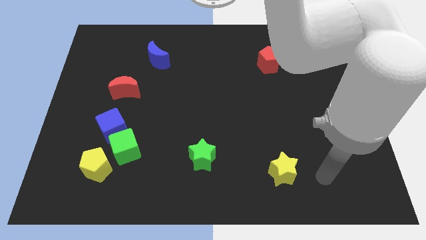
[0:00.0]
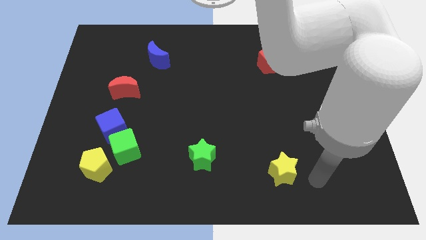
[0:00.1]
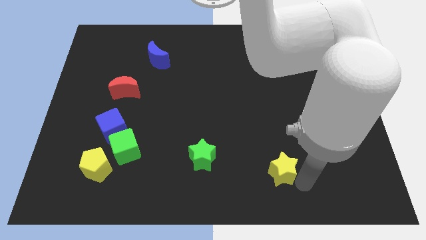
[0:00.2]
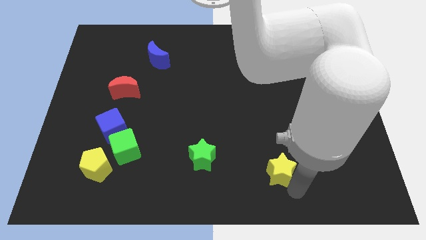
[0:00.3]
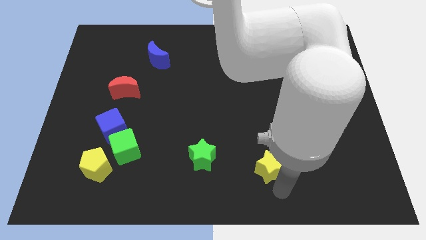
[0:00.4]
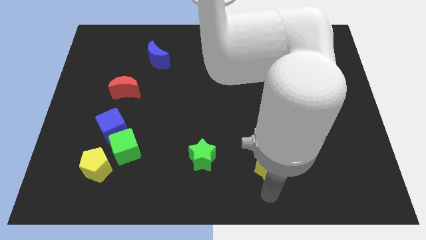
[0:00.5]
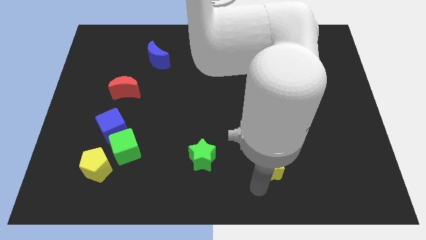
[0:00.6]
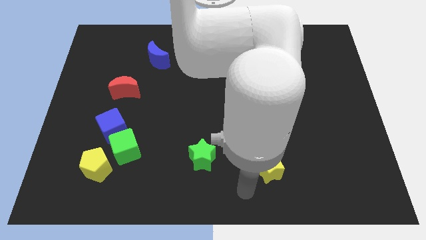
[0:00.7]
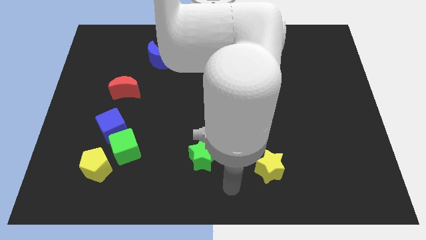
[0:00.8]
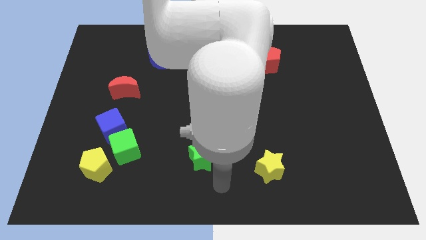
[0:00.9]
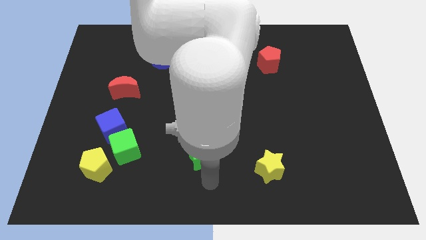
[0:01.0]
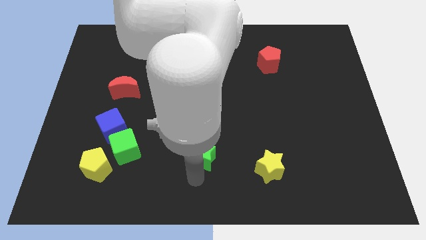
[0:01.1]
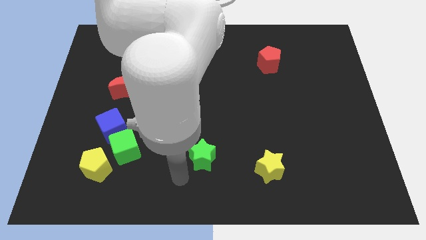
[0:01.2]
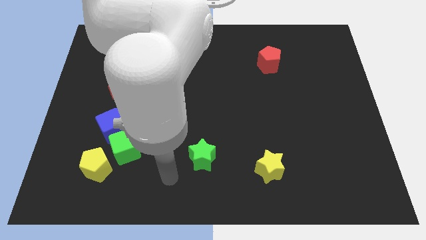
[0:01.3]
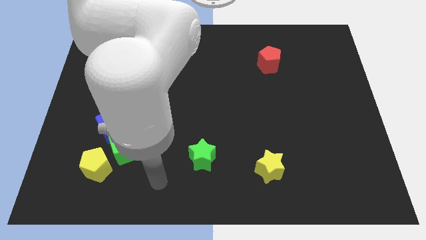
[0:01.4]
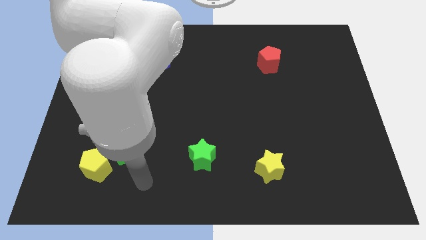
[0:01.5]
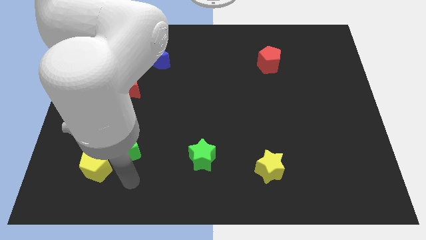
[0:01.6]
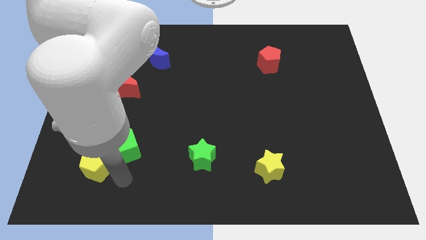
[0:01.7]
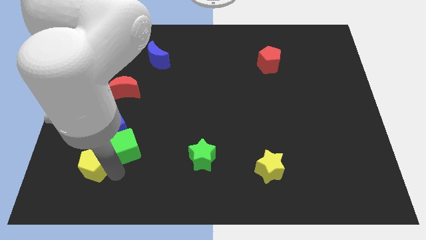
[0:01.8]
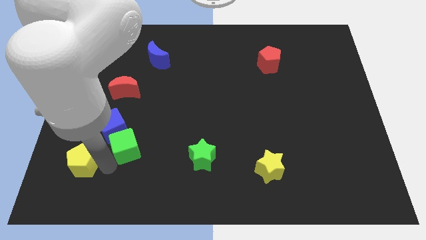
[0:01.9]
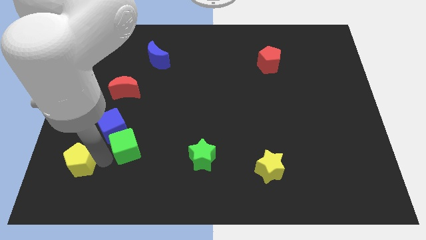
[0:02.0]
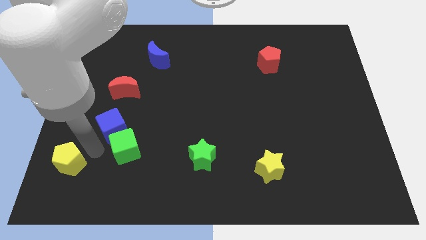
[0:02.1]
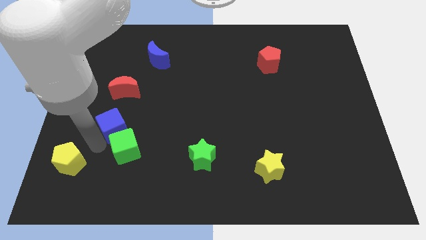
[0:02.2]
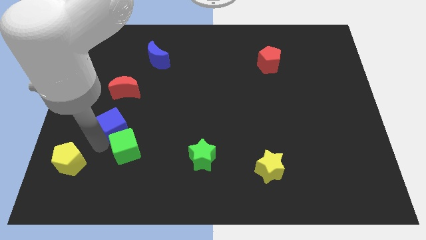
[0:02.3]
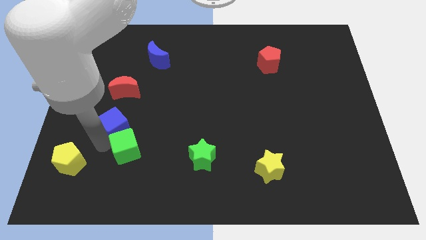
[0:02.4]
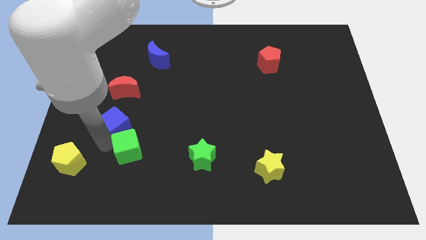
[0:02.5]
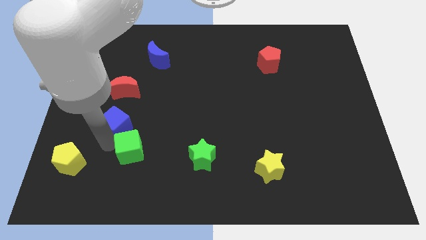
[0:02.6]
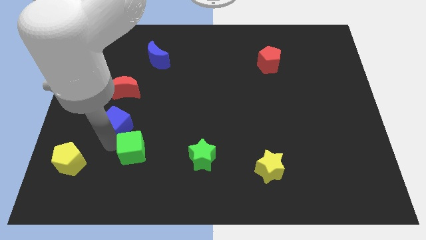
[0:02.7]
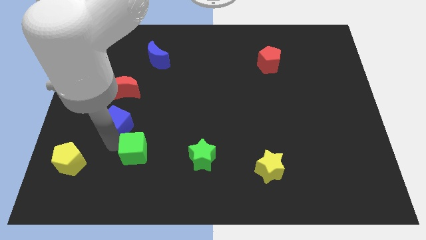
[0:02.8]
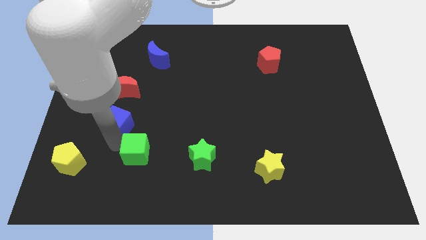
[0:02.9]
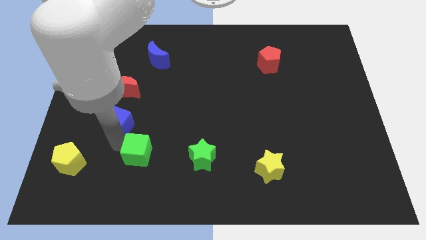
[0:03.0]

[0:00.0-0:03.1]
separate the green cube from the blue cube and yellow pentagon

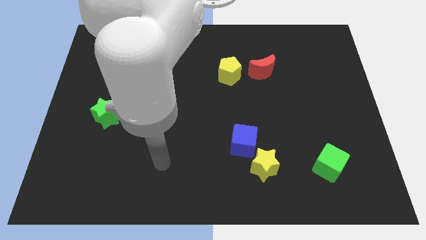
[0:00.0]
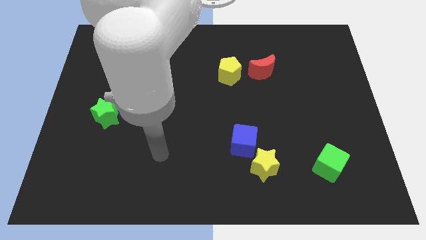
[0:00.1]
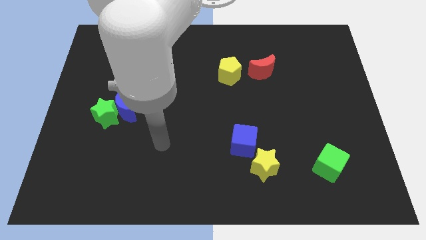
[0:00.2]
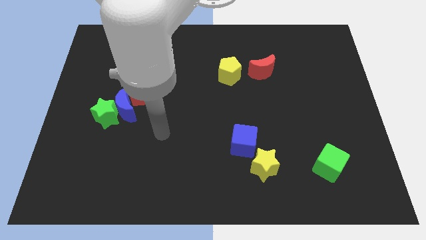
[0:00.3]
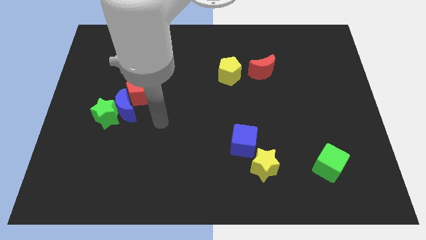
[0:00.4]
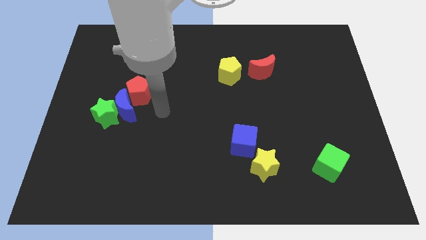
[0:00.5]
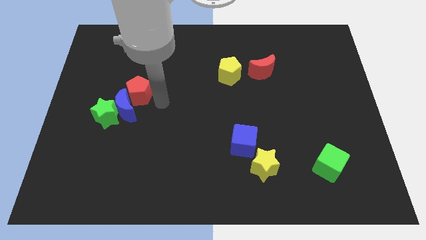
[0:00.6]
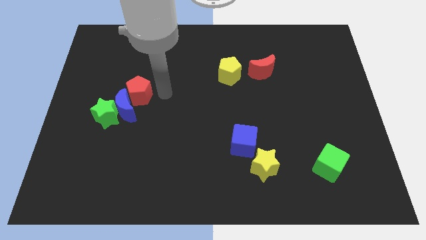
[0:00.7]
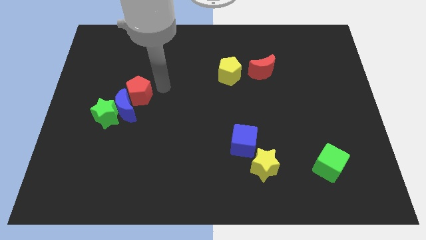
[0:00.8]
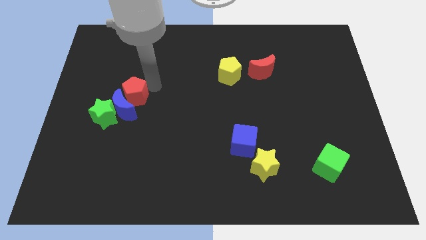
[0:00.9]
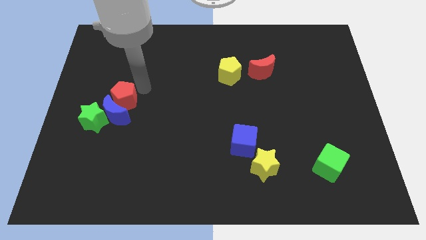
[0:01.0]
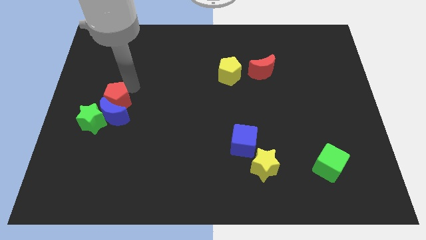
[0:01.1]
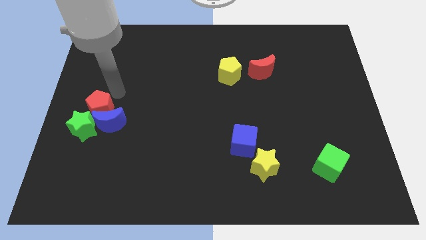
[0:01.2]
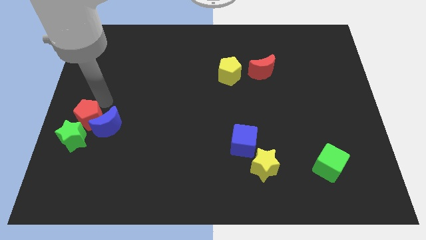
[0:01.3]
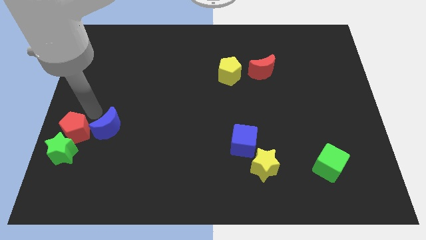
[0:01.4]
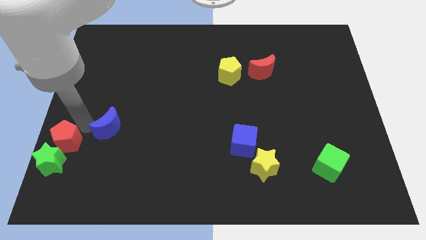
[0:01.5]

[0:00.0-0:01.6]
separate the blue moon from the green star and red pentagon

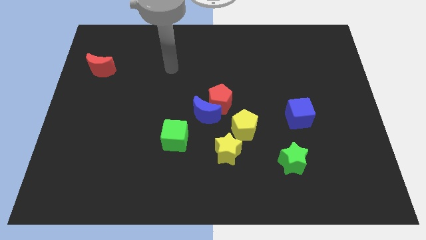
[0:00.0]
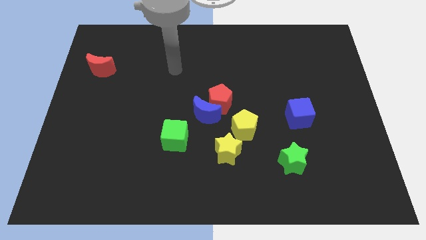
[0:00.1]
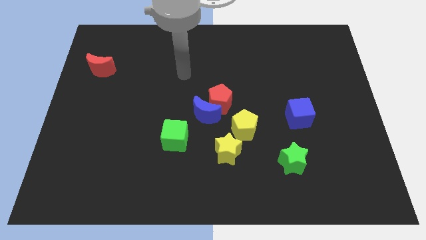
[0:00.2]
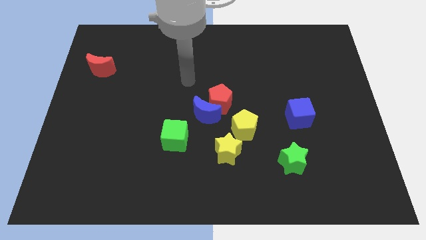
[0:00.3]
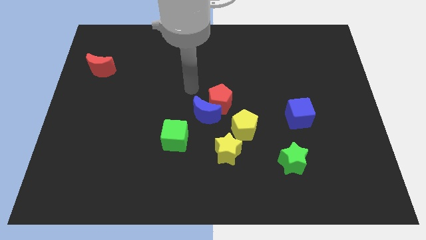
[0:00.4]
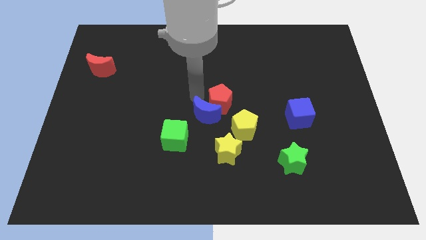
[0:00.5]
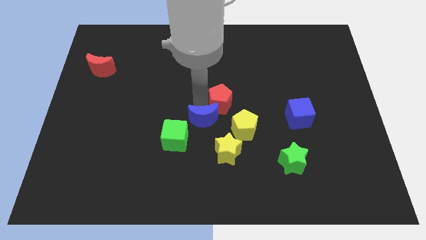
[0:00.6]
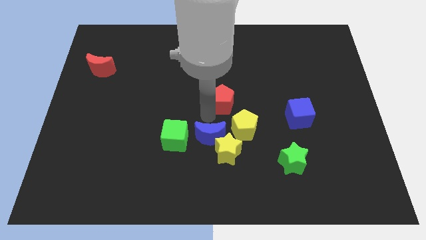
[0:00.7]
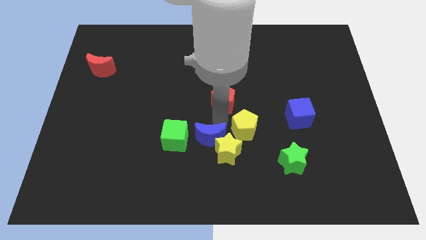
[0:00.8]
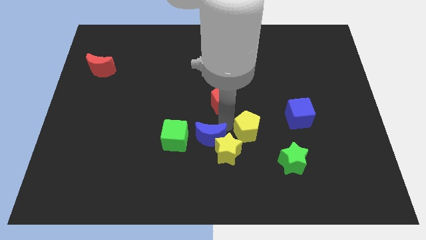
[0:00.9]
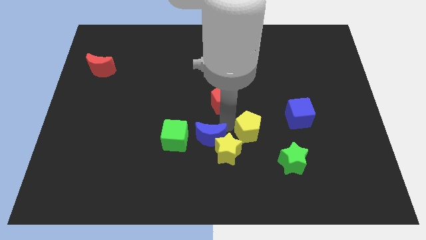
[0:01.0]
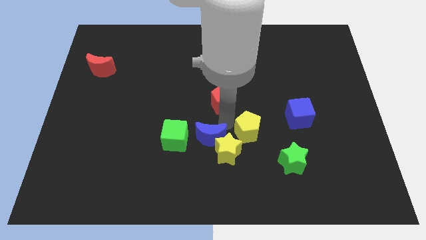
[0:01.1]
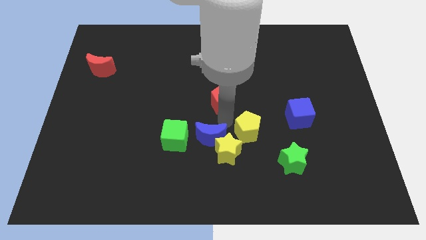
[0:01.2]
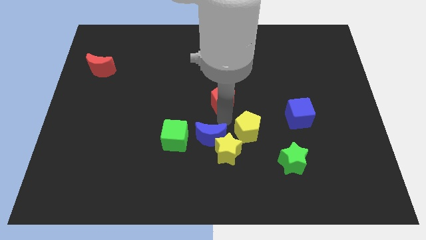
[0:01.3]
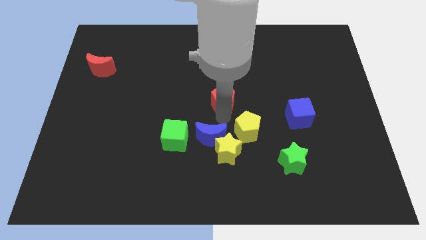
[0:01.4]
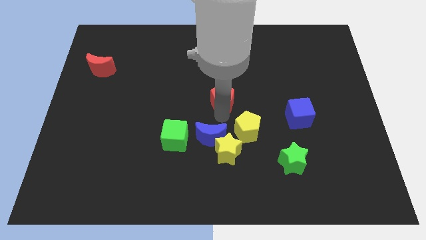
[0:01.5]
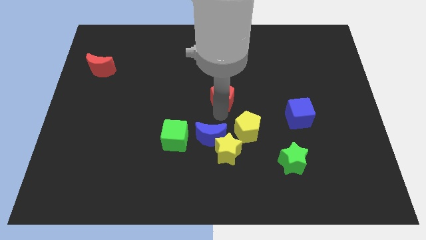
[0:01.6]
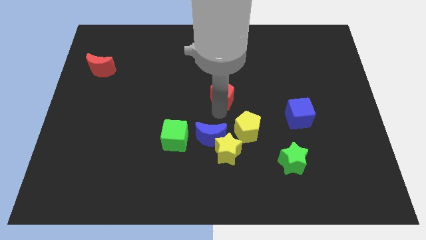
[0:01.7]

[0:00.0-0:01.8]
pull the red pentagon apart from the blue moon and yellow pentagon

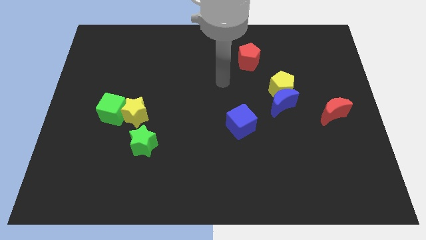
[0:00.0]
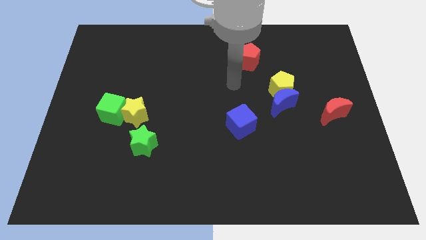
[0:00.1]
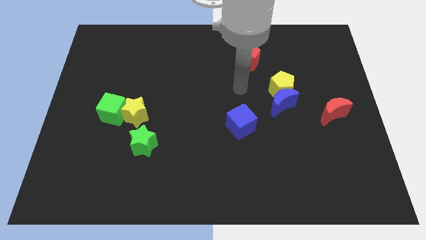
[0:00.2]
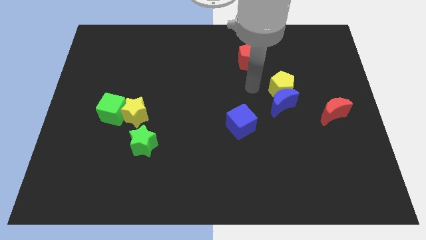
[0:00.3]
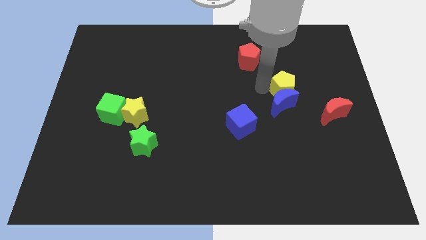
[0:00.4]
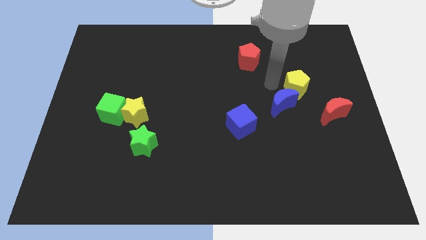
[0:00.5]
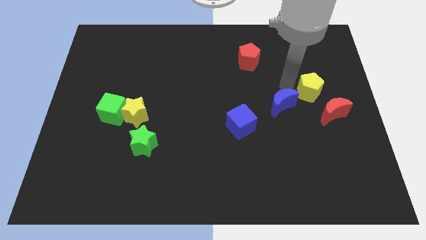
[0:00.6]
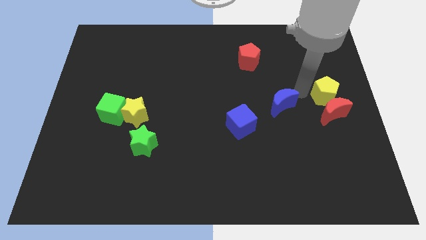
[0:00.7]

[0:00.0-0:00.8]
move the blue moon away from the yellow pentagon

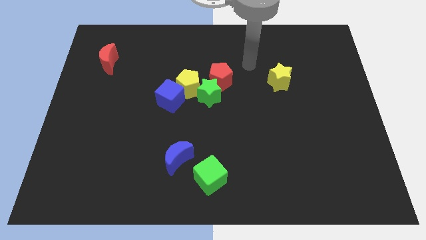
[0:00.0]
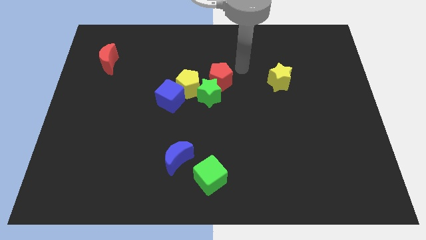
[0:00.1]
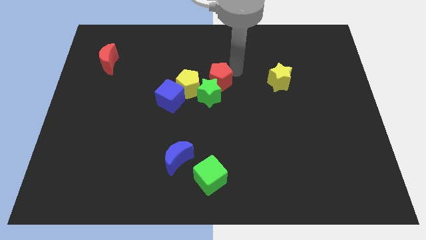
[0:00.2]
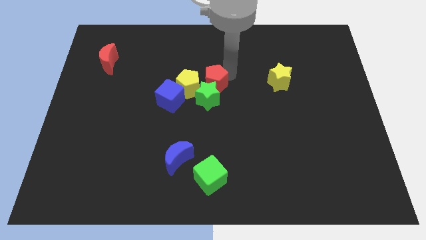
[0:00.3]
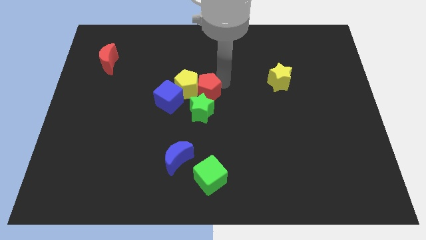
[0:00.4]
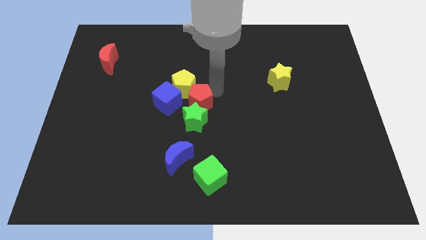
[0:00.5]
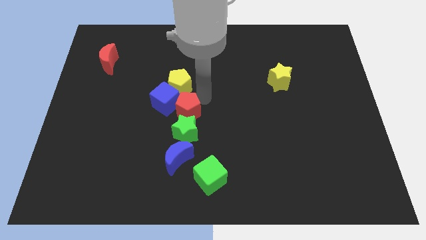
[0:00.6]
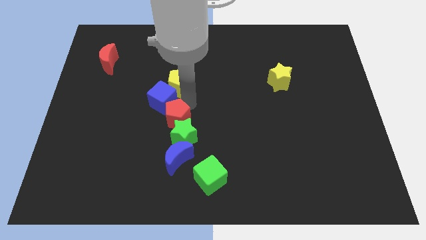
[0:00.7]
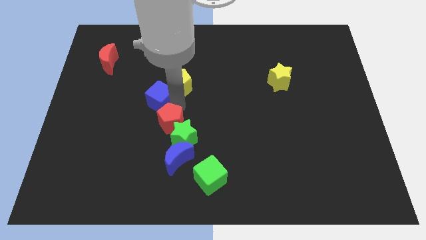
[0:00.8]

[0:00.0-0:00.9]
pull the yellow pentagon apart from the group of blocks

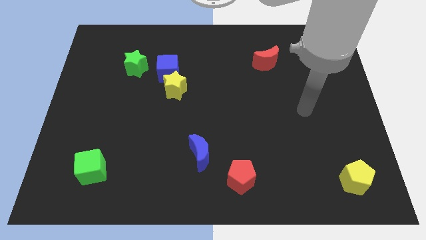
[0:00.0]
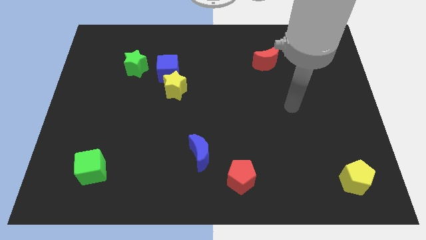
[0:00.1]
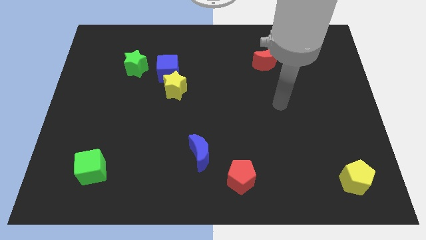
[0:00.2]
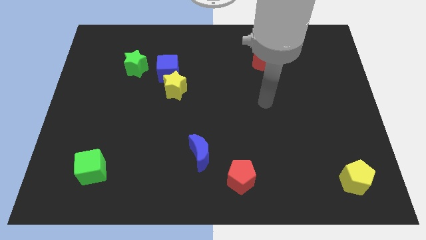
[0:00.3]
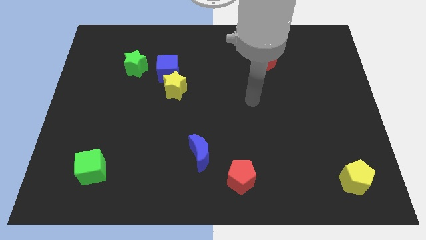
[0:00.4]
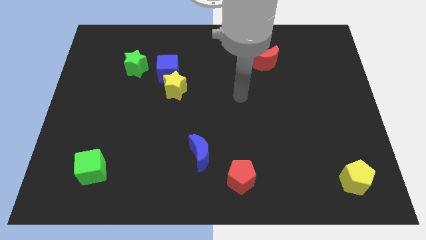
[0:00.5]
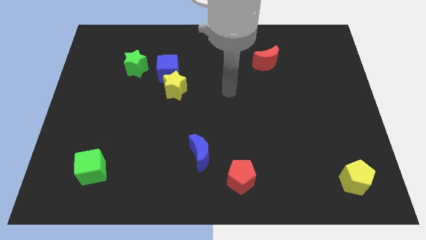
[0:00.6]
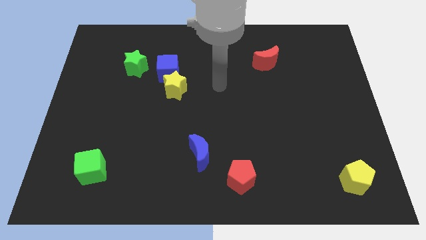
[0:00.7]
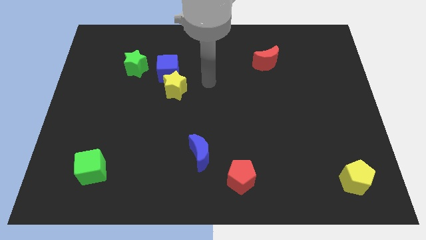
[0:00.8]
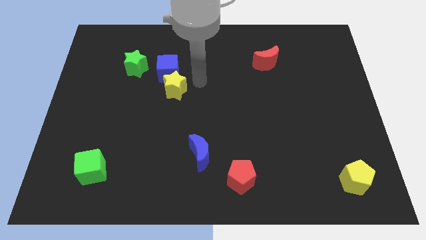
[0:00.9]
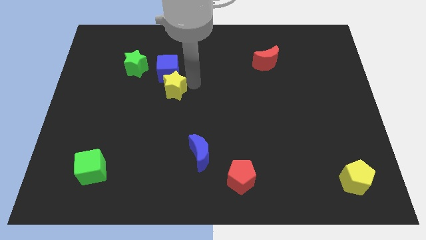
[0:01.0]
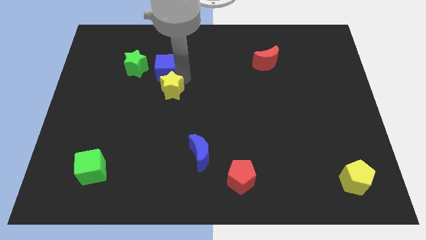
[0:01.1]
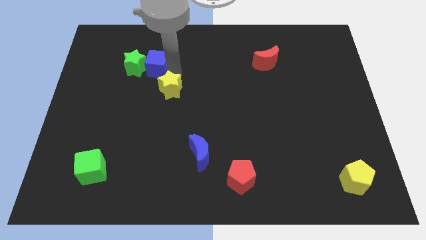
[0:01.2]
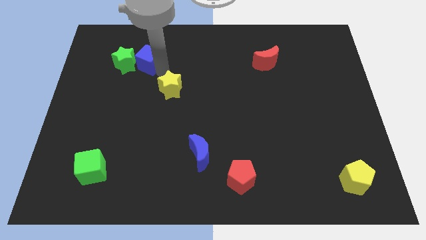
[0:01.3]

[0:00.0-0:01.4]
pull the yellow star apart from the blue cube
